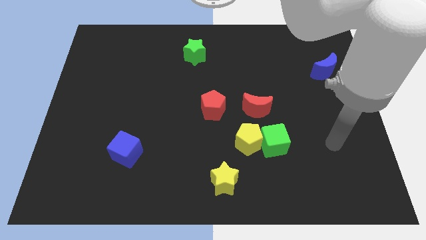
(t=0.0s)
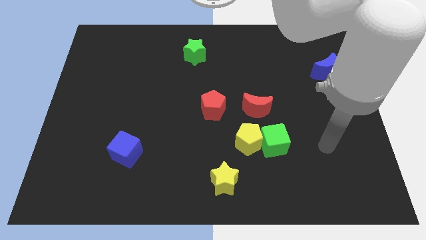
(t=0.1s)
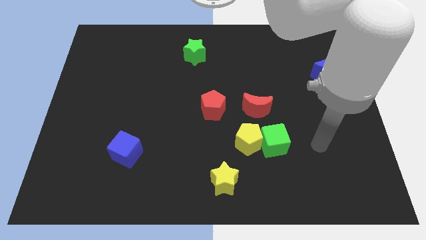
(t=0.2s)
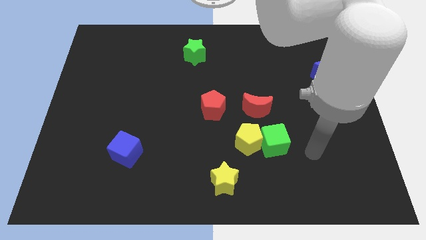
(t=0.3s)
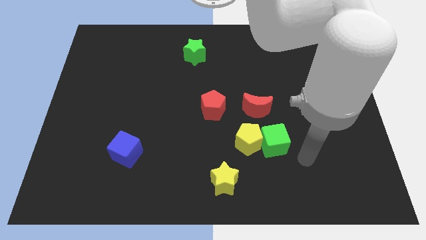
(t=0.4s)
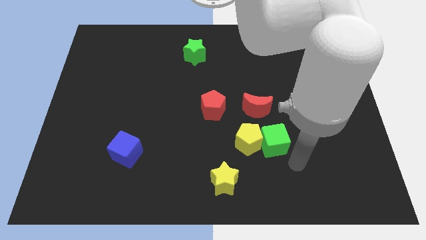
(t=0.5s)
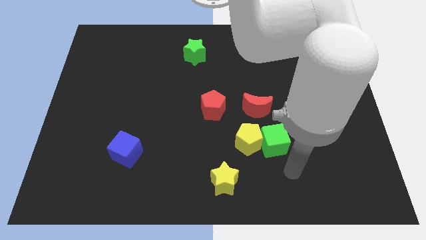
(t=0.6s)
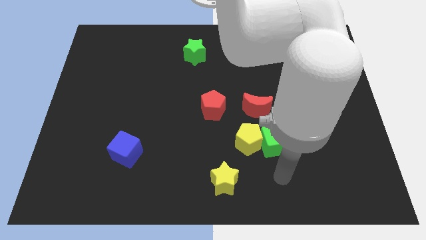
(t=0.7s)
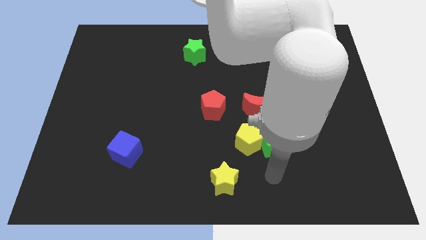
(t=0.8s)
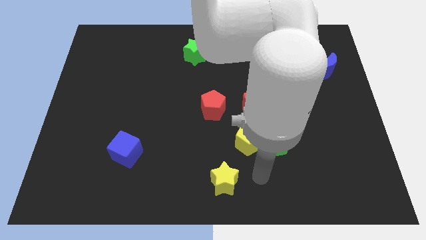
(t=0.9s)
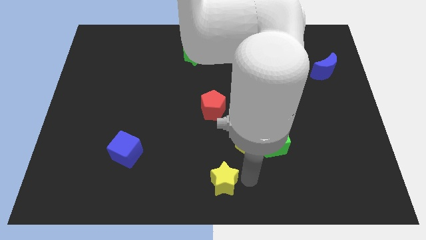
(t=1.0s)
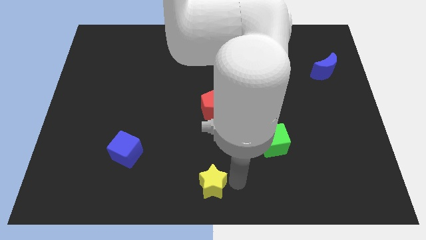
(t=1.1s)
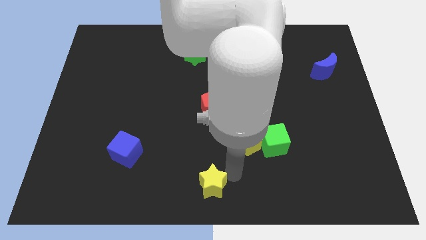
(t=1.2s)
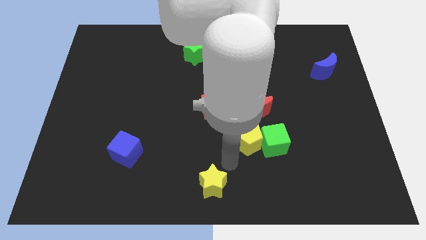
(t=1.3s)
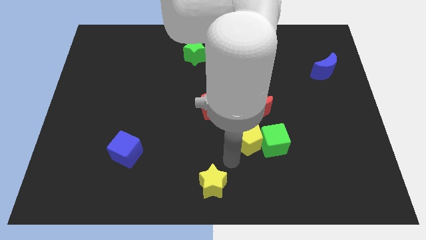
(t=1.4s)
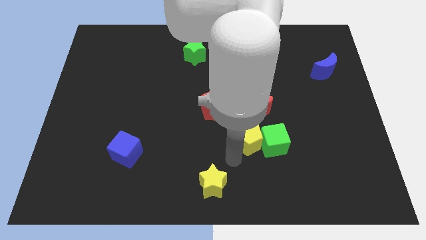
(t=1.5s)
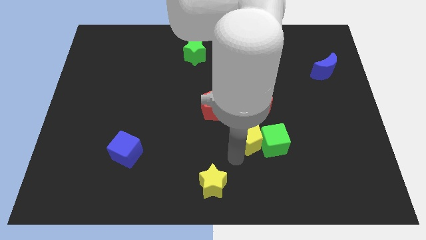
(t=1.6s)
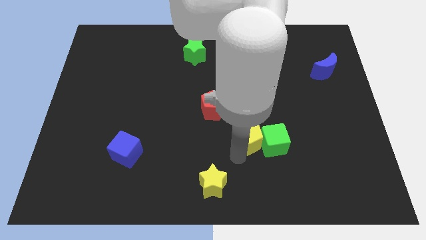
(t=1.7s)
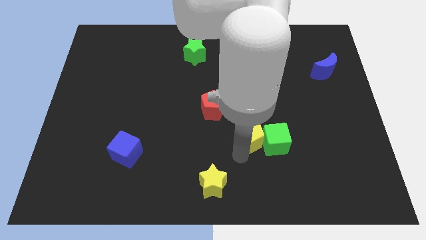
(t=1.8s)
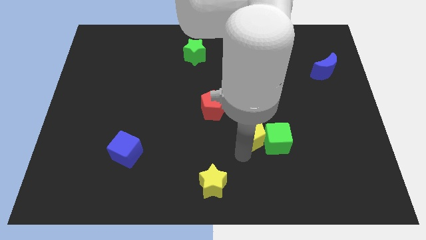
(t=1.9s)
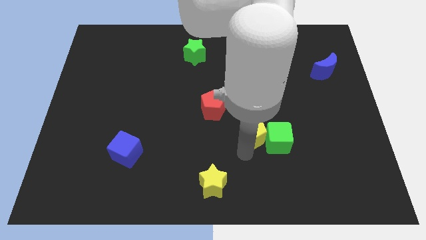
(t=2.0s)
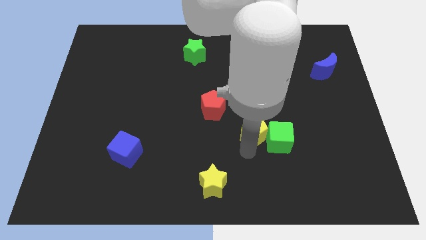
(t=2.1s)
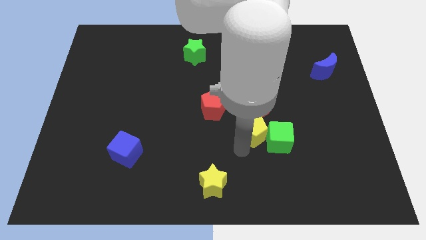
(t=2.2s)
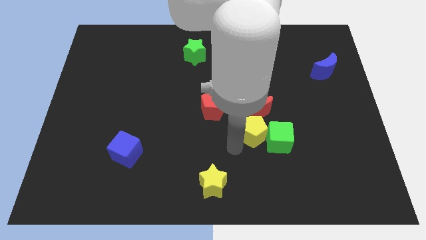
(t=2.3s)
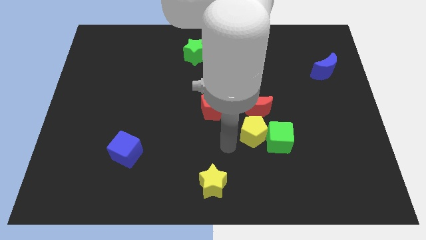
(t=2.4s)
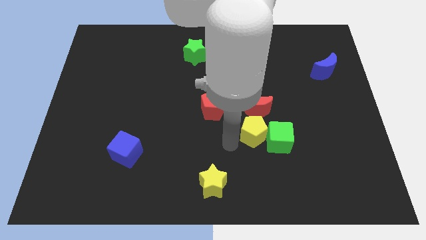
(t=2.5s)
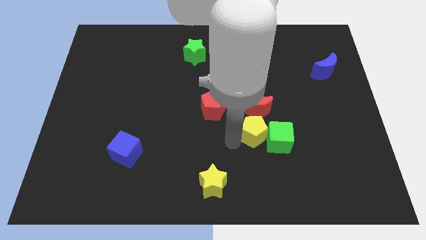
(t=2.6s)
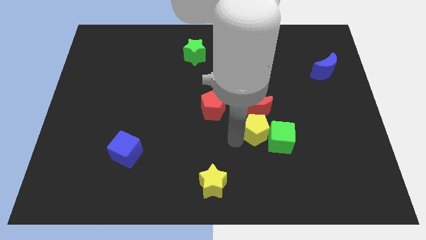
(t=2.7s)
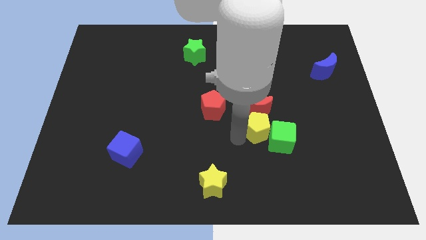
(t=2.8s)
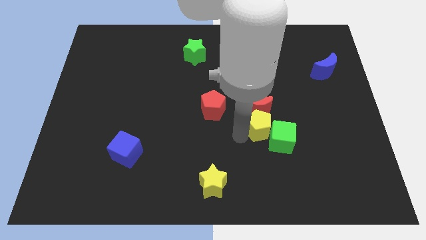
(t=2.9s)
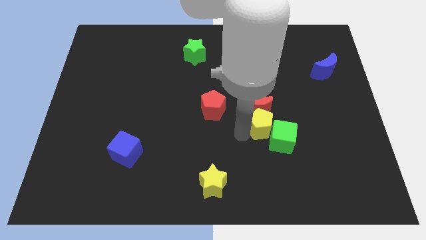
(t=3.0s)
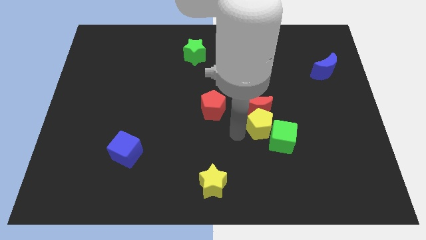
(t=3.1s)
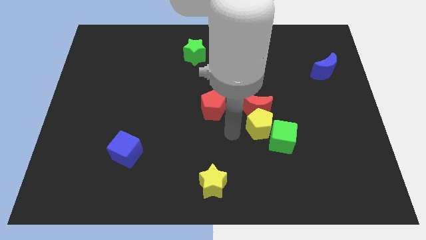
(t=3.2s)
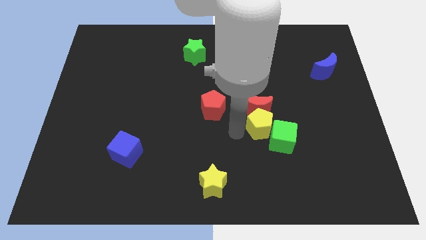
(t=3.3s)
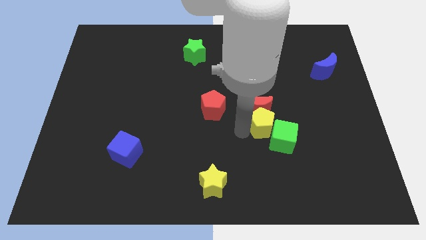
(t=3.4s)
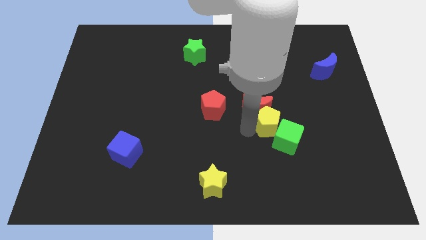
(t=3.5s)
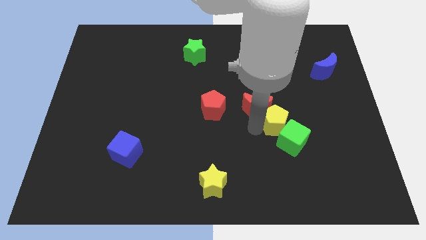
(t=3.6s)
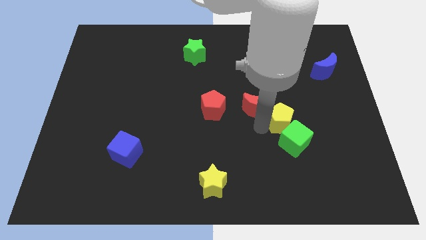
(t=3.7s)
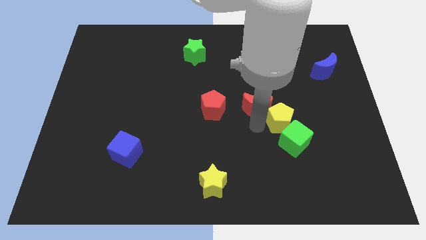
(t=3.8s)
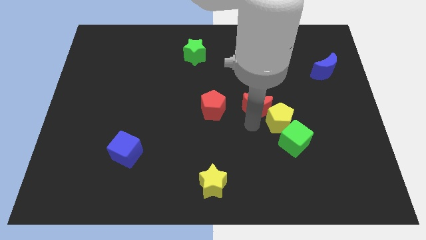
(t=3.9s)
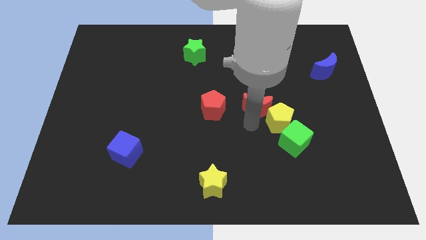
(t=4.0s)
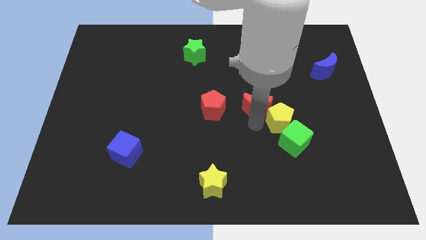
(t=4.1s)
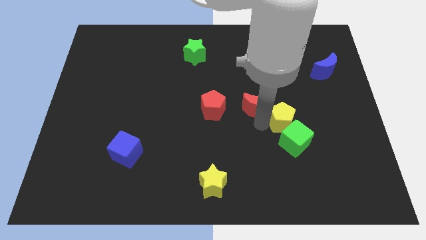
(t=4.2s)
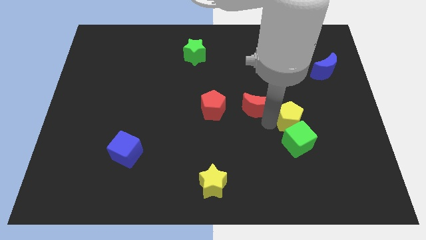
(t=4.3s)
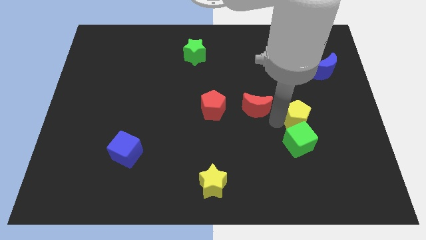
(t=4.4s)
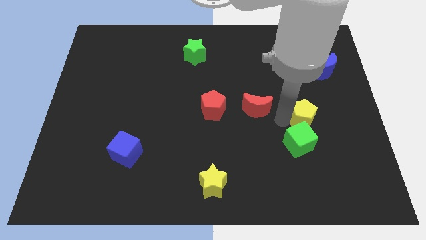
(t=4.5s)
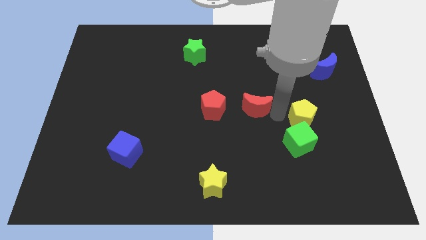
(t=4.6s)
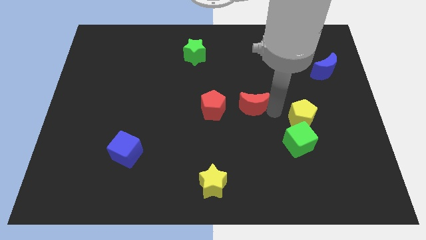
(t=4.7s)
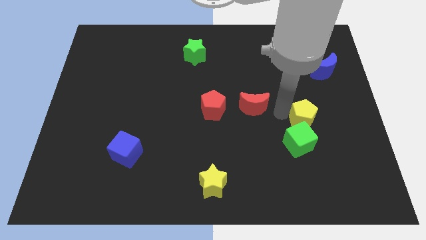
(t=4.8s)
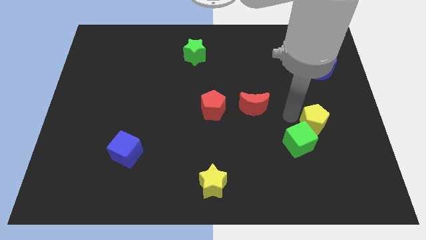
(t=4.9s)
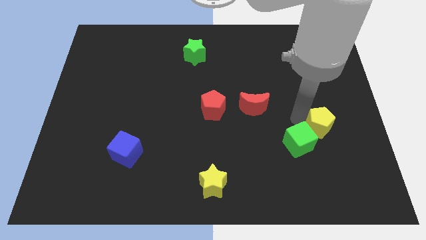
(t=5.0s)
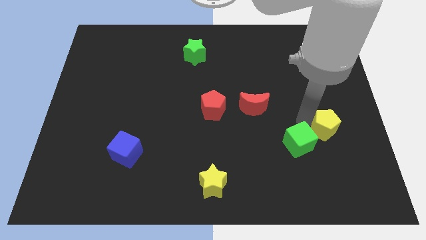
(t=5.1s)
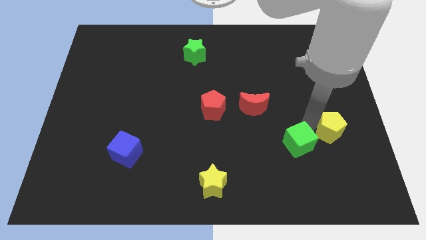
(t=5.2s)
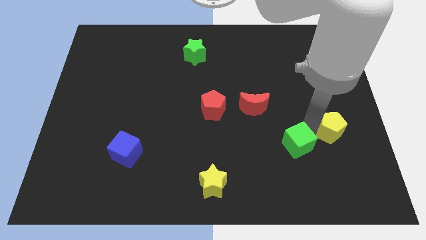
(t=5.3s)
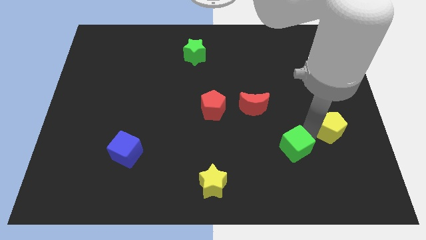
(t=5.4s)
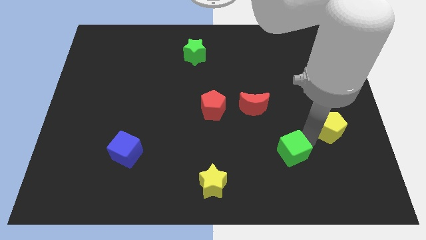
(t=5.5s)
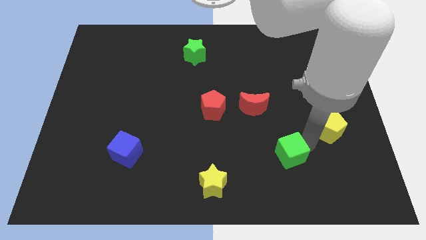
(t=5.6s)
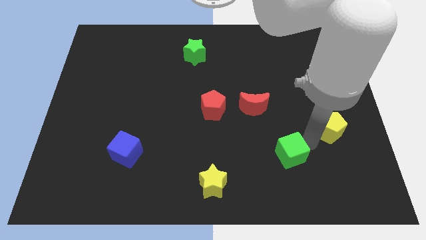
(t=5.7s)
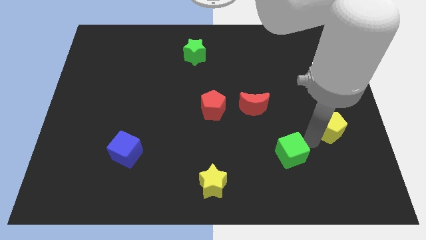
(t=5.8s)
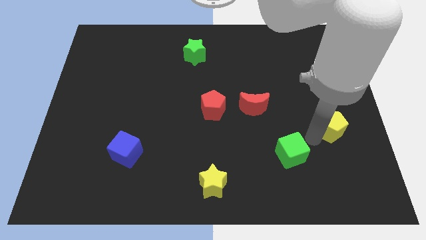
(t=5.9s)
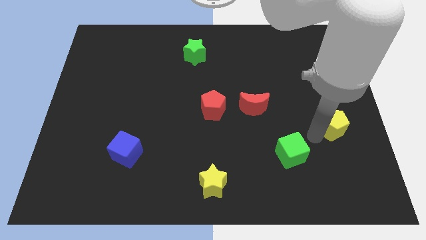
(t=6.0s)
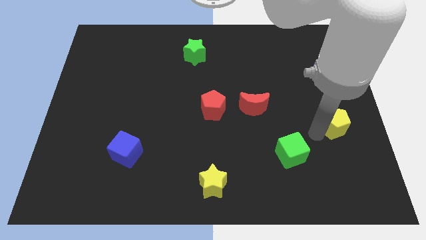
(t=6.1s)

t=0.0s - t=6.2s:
slide the yellow pentagon to the center right
